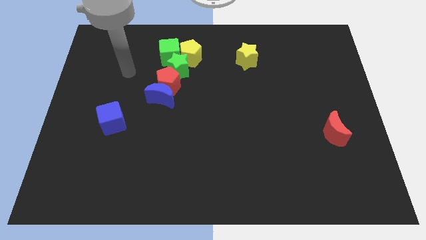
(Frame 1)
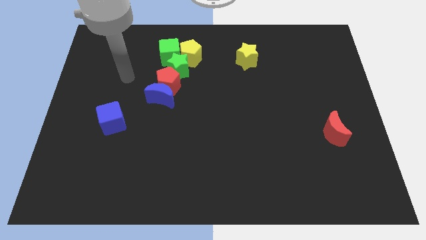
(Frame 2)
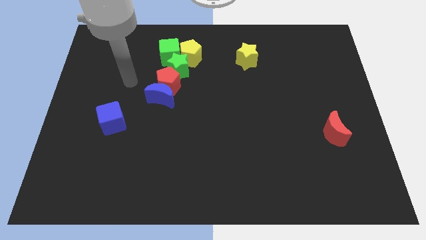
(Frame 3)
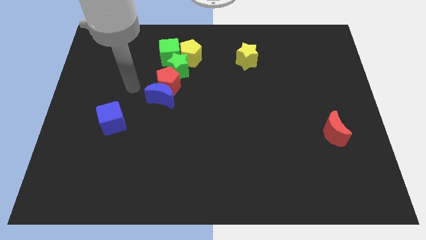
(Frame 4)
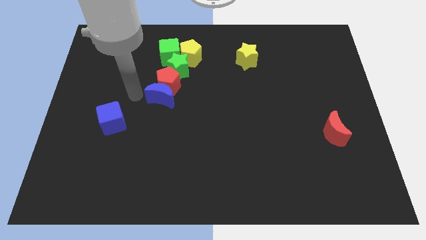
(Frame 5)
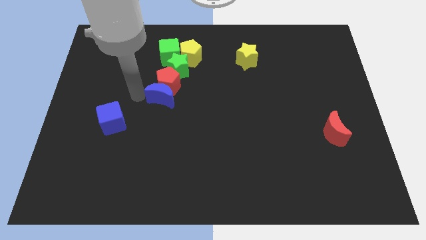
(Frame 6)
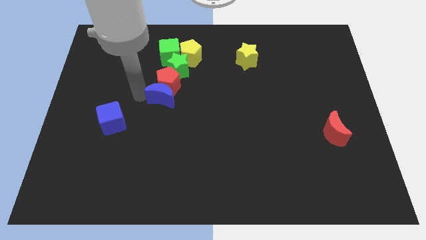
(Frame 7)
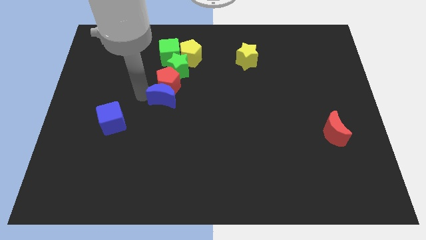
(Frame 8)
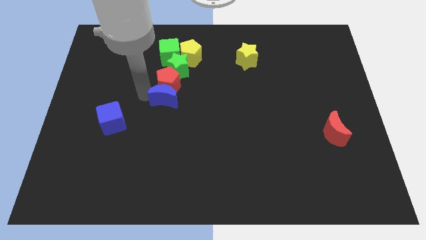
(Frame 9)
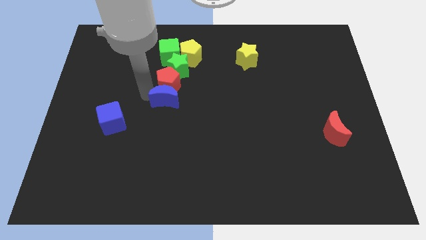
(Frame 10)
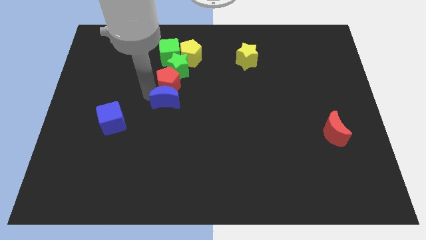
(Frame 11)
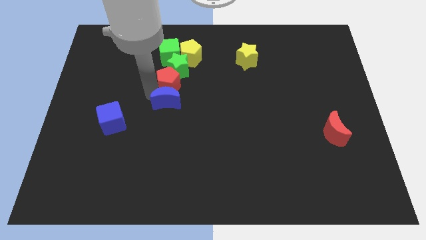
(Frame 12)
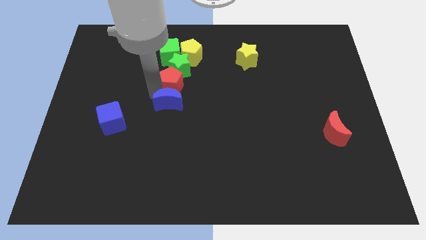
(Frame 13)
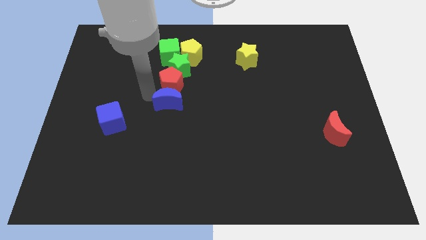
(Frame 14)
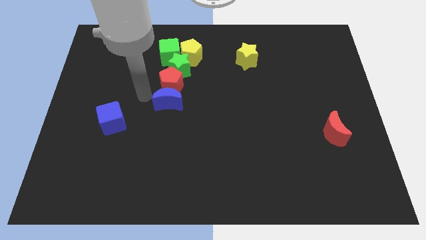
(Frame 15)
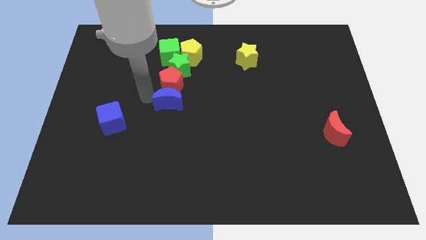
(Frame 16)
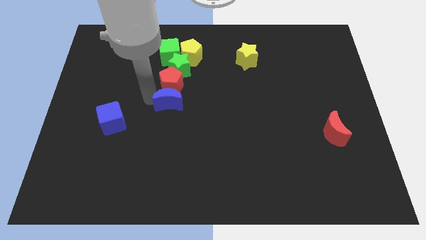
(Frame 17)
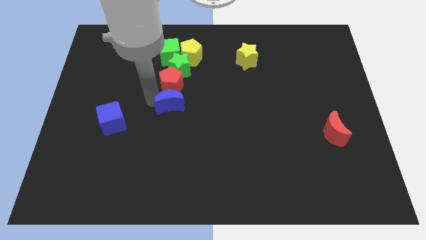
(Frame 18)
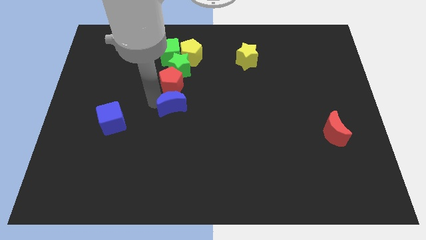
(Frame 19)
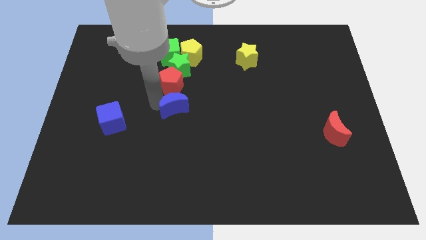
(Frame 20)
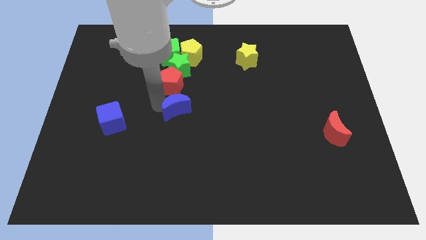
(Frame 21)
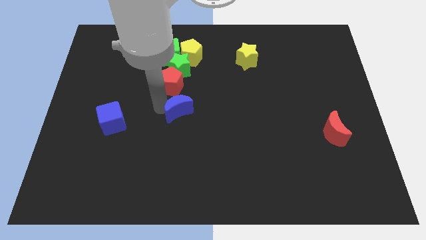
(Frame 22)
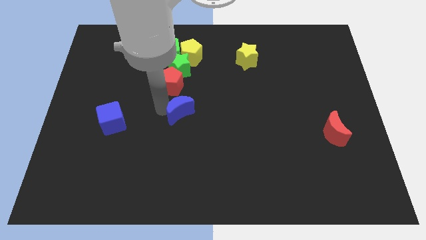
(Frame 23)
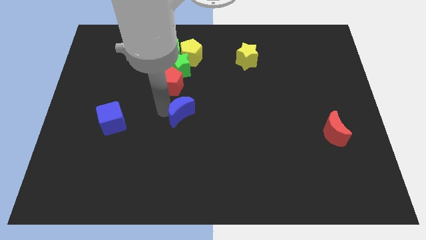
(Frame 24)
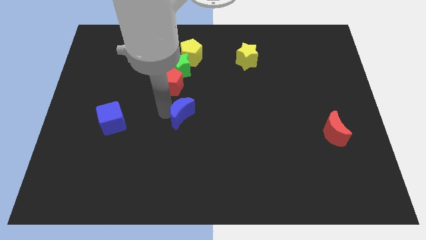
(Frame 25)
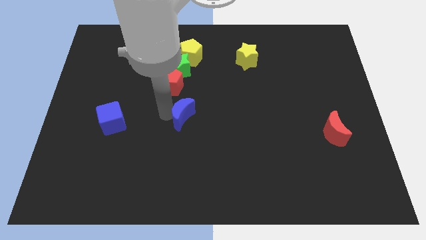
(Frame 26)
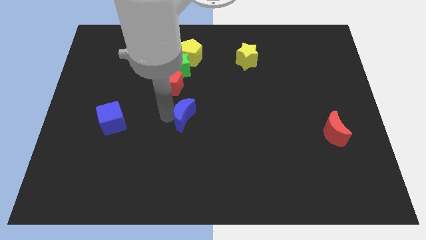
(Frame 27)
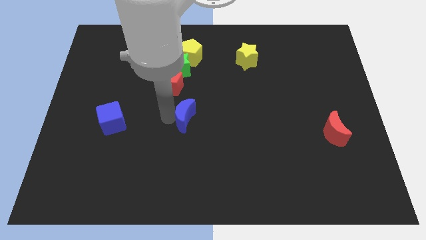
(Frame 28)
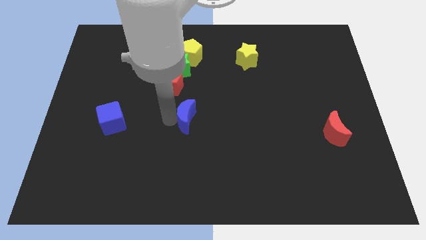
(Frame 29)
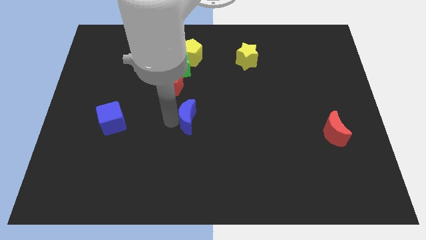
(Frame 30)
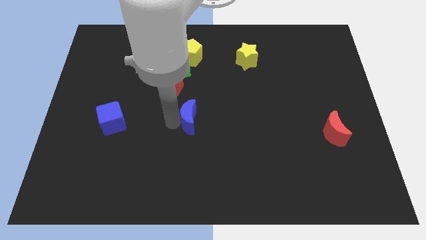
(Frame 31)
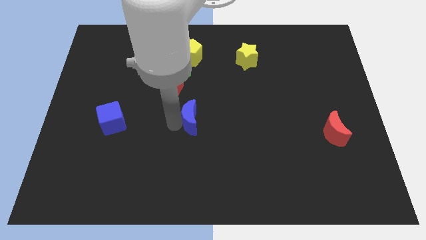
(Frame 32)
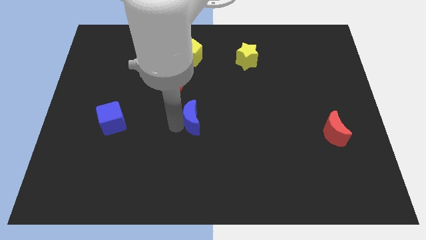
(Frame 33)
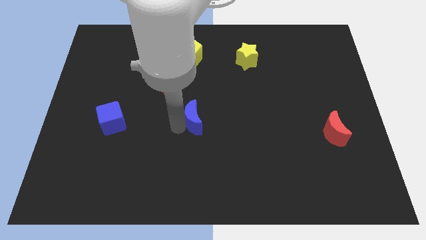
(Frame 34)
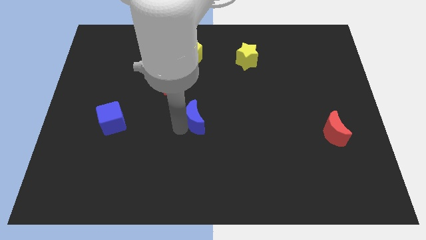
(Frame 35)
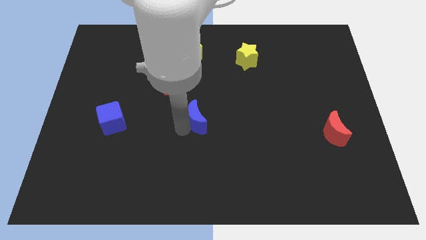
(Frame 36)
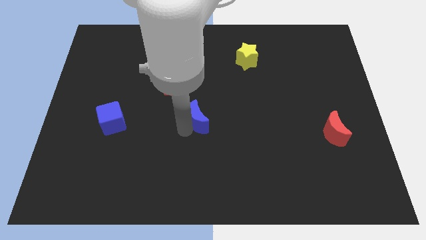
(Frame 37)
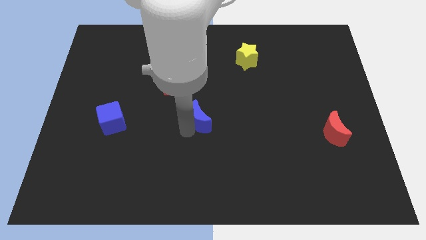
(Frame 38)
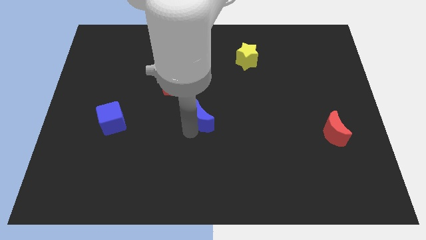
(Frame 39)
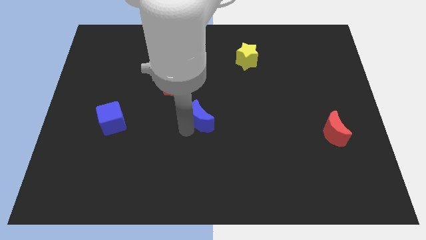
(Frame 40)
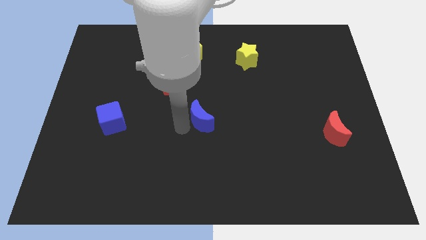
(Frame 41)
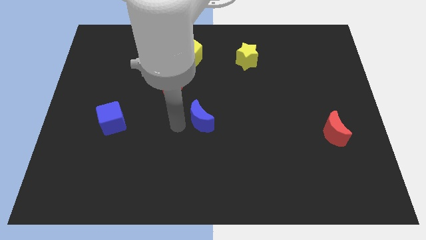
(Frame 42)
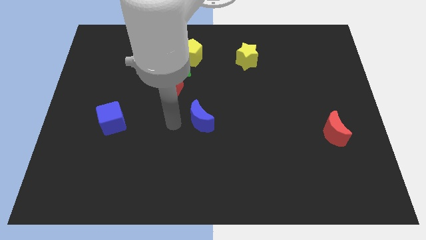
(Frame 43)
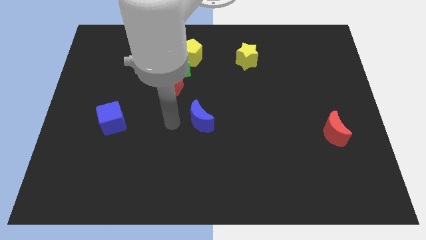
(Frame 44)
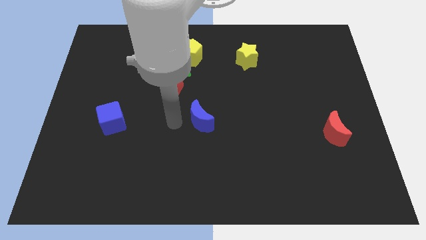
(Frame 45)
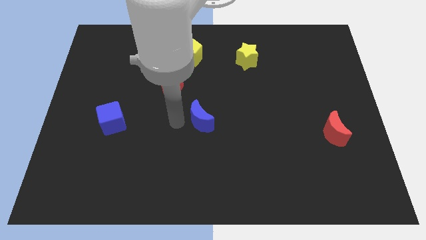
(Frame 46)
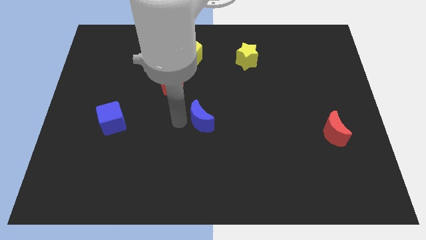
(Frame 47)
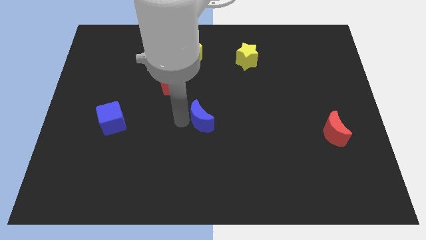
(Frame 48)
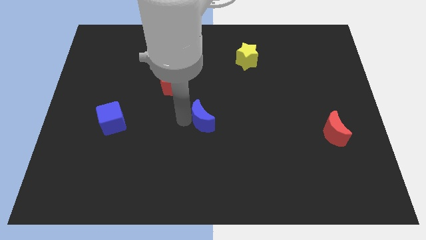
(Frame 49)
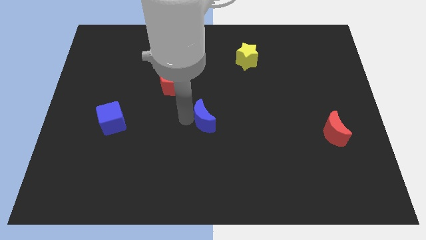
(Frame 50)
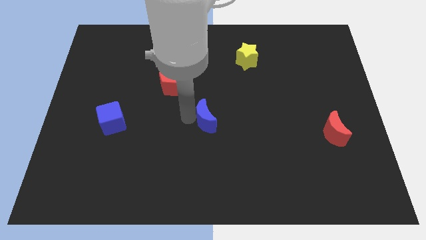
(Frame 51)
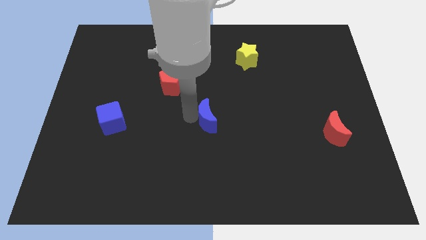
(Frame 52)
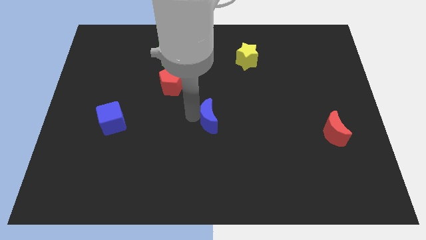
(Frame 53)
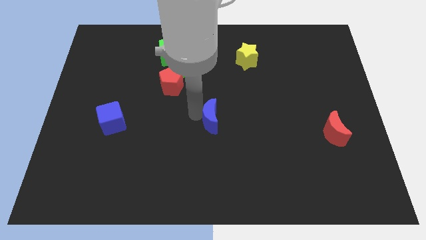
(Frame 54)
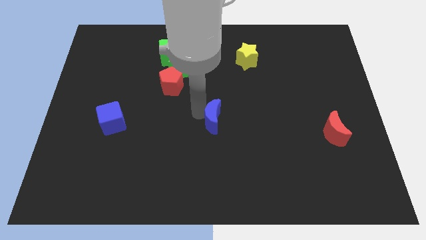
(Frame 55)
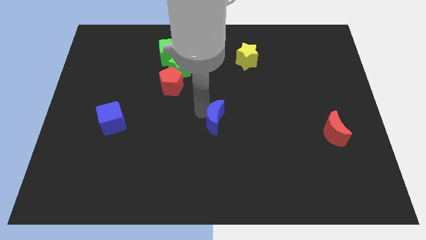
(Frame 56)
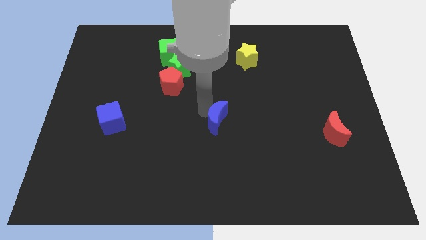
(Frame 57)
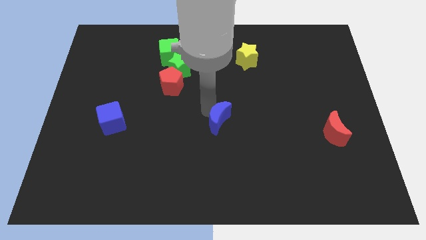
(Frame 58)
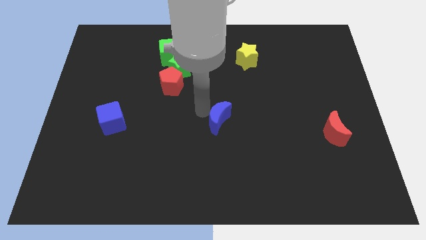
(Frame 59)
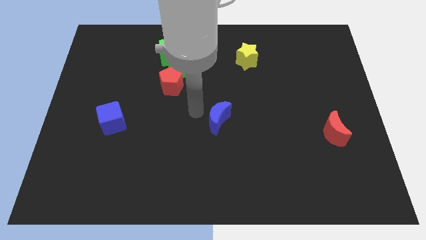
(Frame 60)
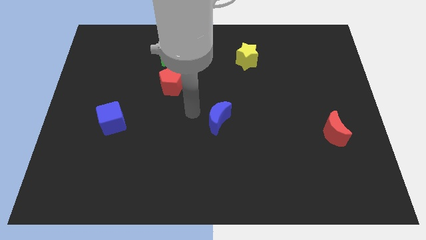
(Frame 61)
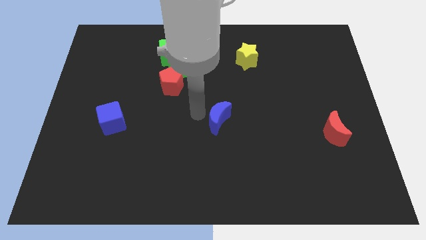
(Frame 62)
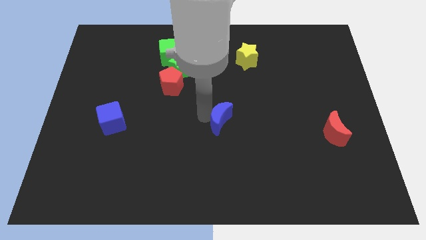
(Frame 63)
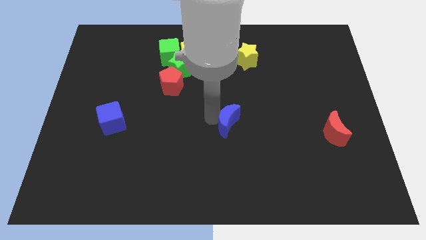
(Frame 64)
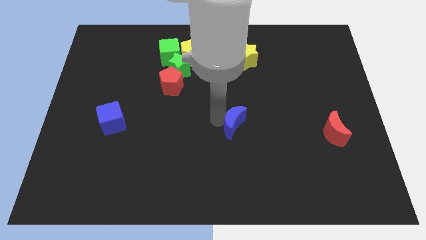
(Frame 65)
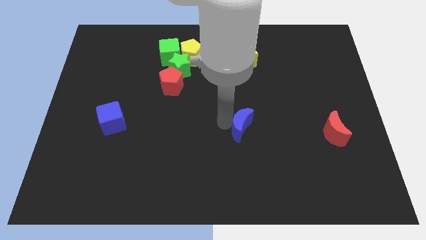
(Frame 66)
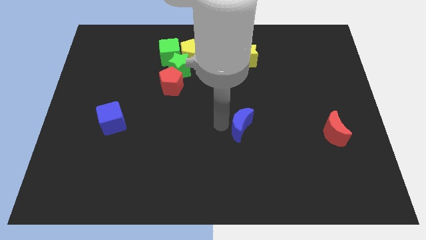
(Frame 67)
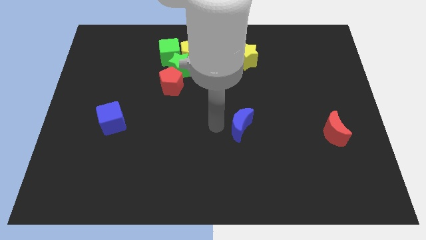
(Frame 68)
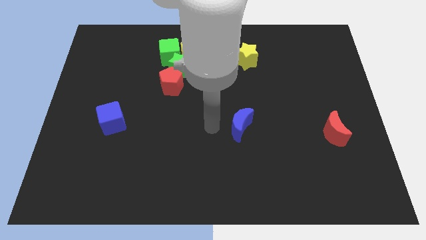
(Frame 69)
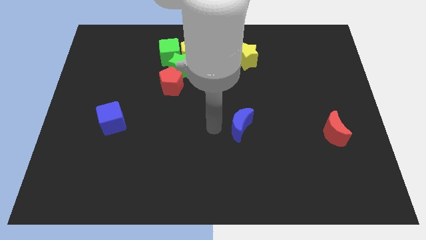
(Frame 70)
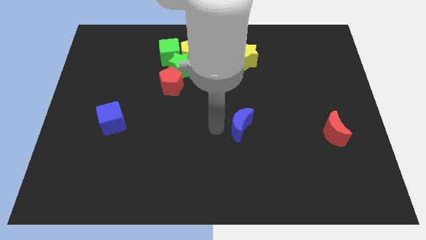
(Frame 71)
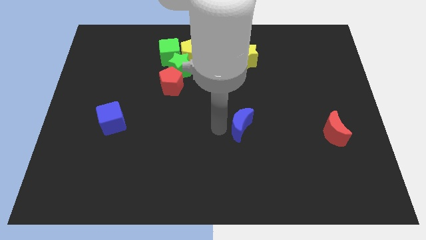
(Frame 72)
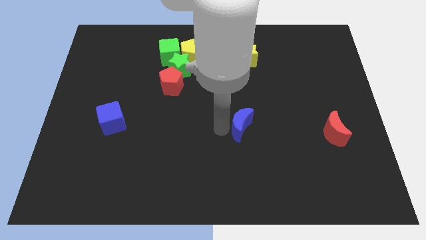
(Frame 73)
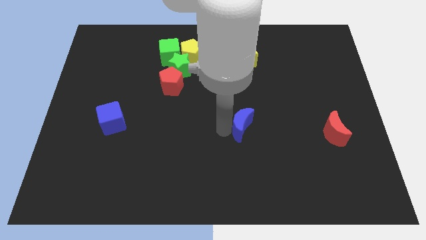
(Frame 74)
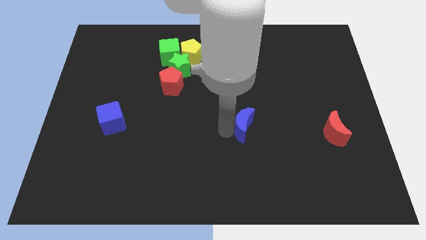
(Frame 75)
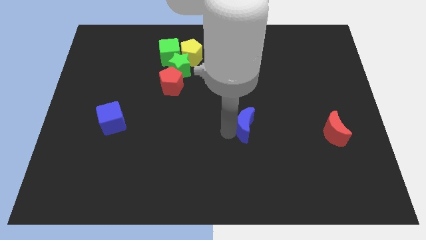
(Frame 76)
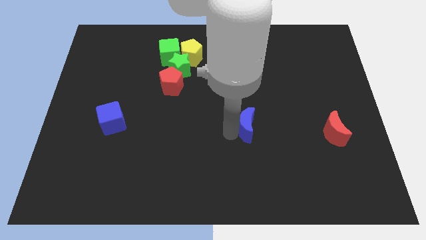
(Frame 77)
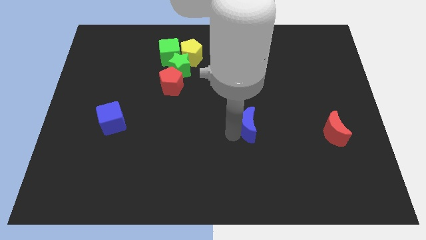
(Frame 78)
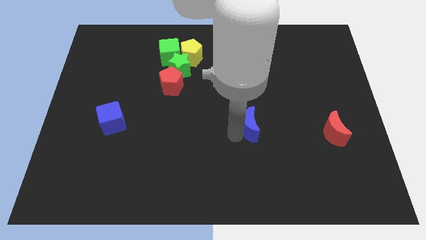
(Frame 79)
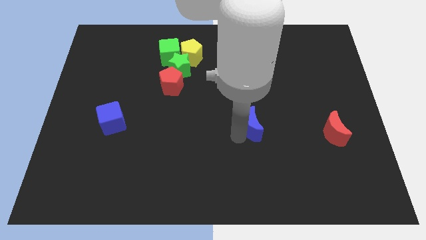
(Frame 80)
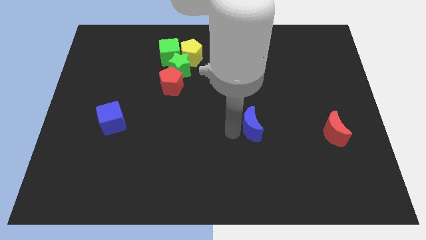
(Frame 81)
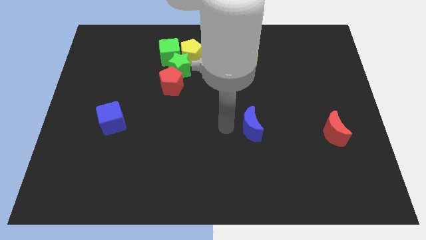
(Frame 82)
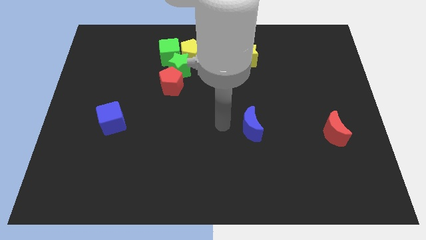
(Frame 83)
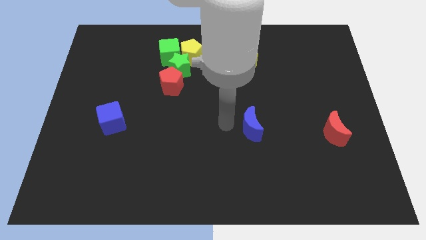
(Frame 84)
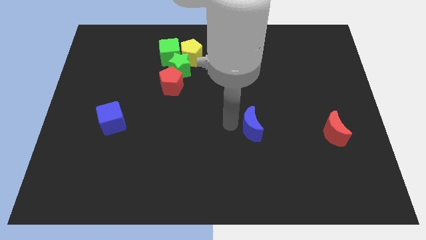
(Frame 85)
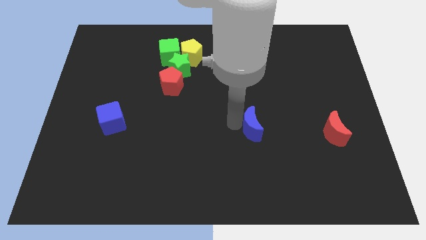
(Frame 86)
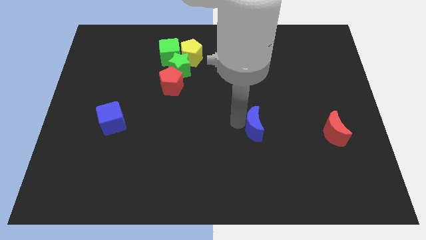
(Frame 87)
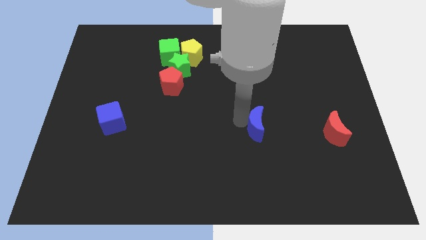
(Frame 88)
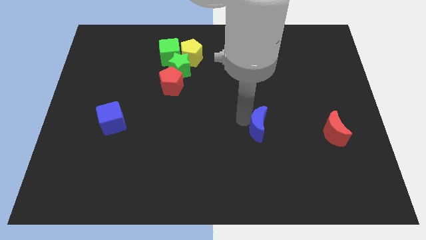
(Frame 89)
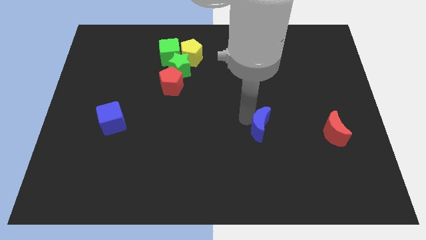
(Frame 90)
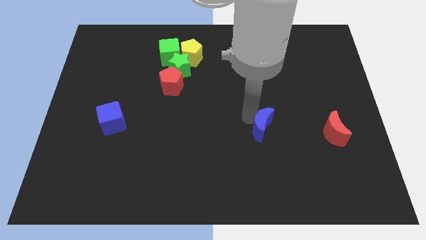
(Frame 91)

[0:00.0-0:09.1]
move the blue moon to the left side of the red moon
